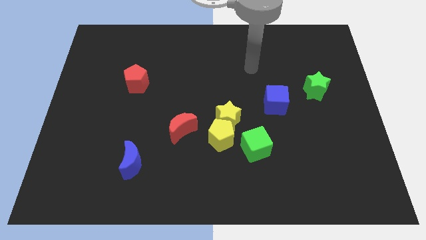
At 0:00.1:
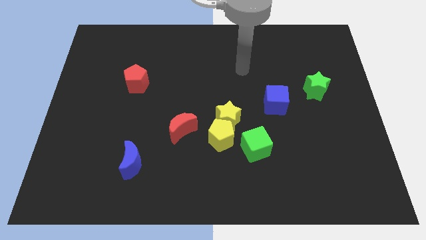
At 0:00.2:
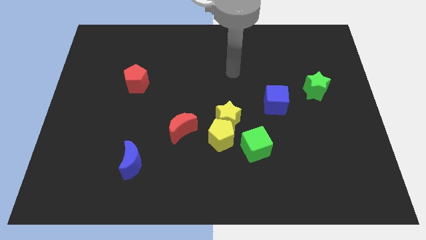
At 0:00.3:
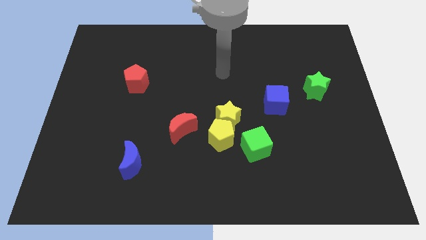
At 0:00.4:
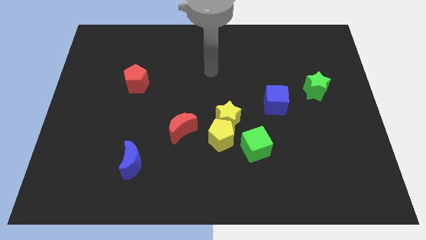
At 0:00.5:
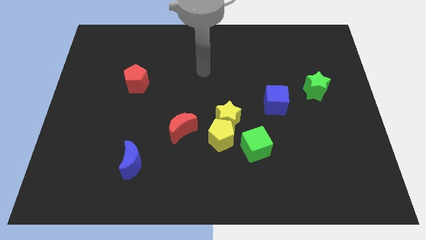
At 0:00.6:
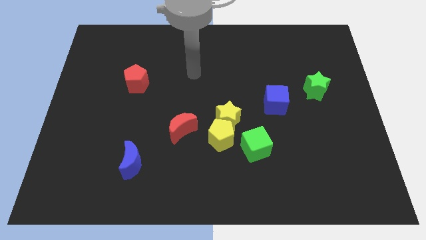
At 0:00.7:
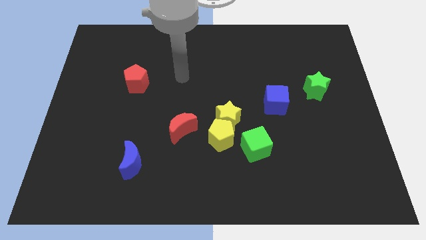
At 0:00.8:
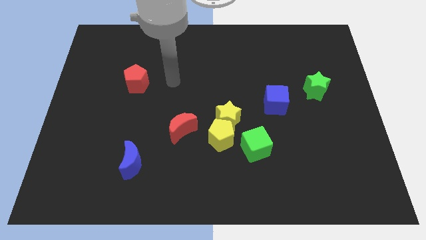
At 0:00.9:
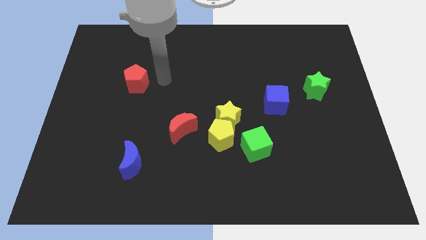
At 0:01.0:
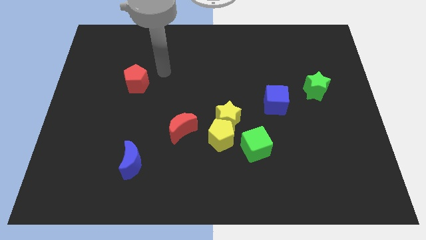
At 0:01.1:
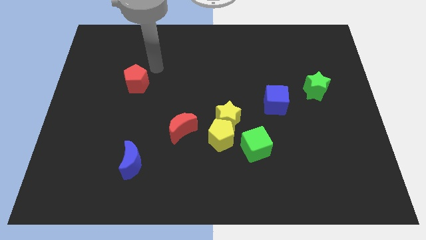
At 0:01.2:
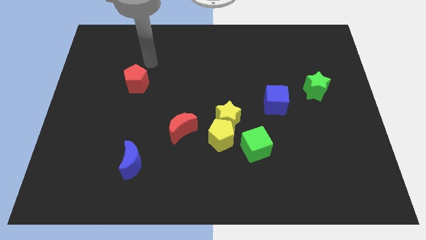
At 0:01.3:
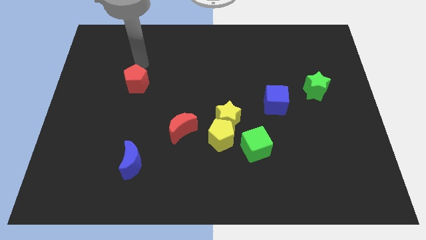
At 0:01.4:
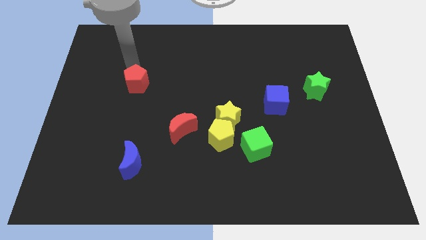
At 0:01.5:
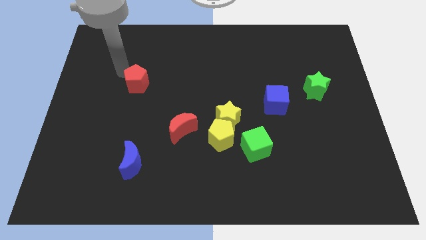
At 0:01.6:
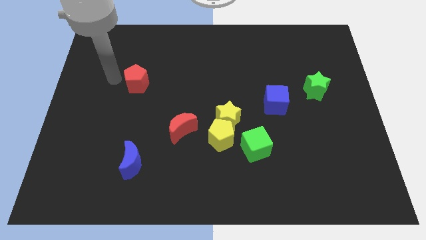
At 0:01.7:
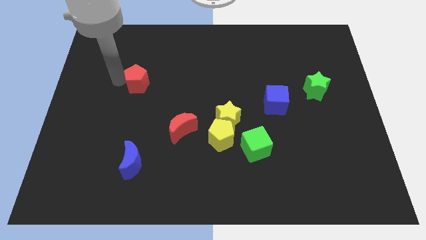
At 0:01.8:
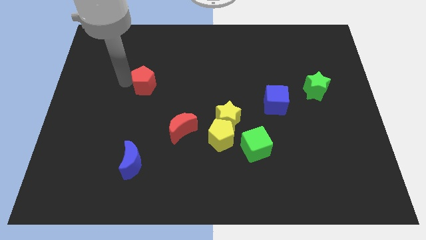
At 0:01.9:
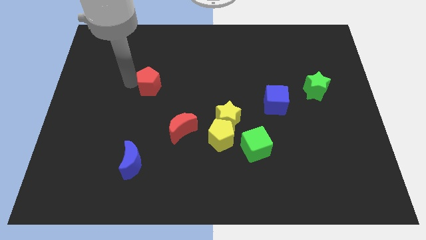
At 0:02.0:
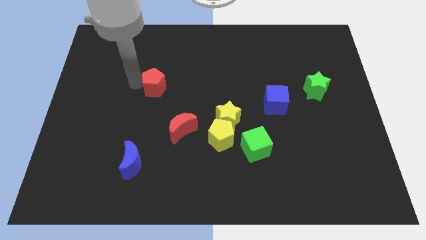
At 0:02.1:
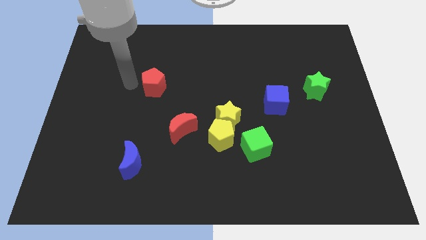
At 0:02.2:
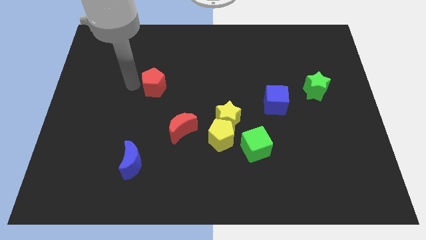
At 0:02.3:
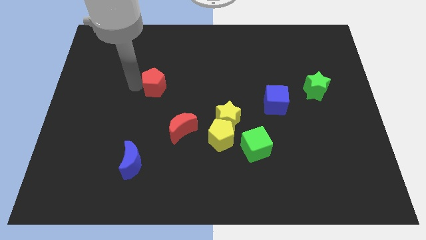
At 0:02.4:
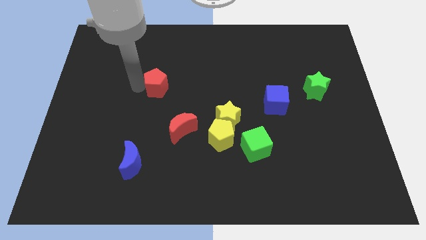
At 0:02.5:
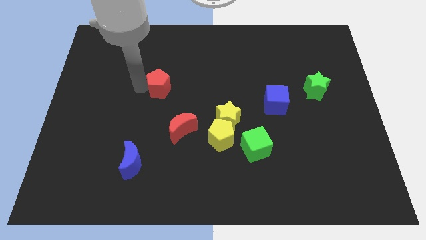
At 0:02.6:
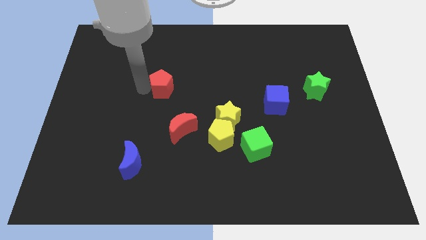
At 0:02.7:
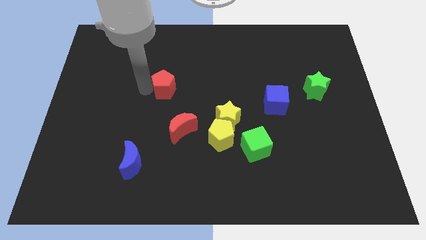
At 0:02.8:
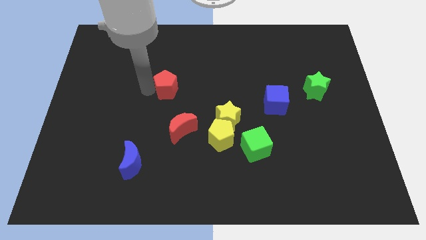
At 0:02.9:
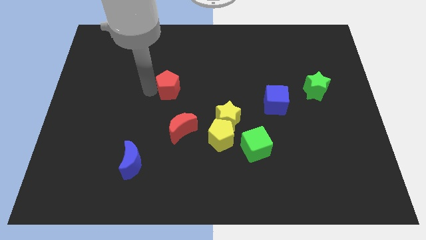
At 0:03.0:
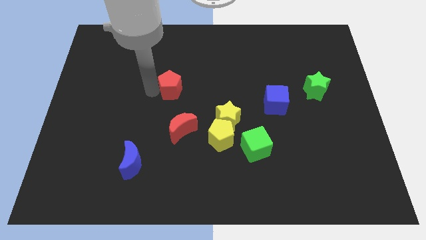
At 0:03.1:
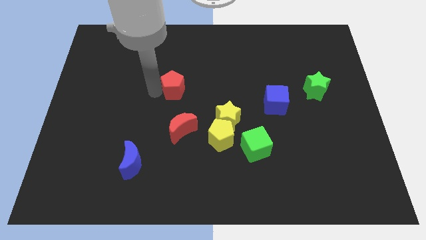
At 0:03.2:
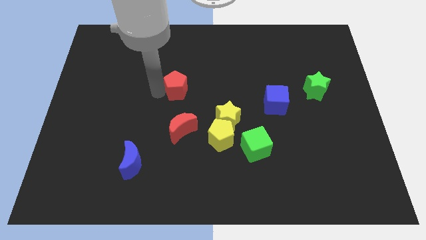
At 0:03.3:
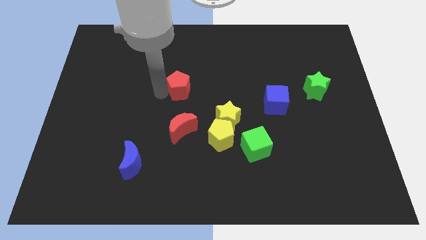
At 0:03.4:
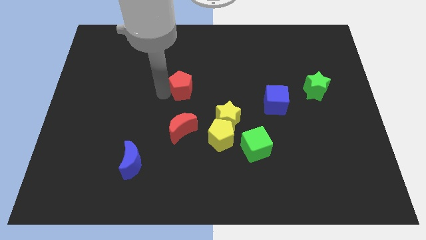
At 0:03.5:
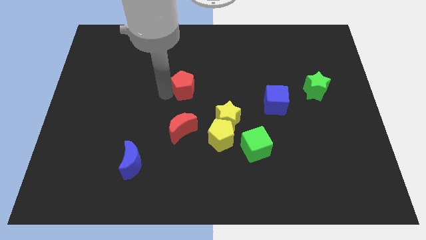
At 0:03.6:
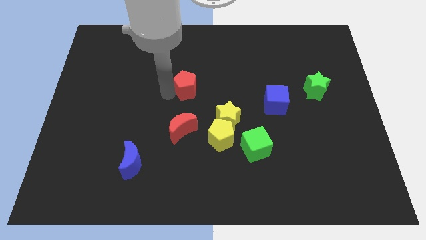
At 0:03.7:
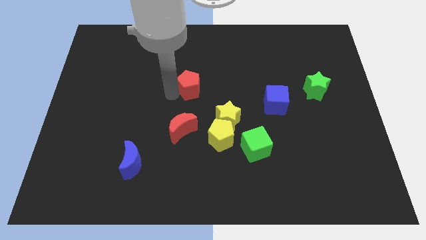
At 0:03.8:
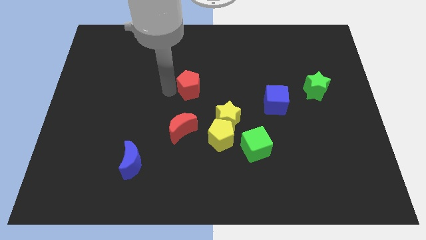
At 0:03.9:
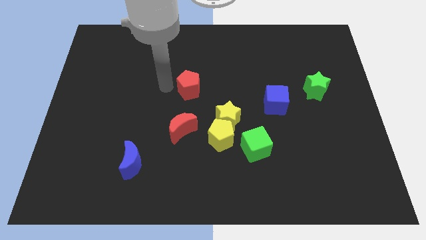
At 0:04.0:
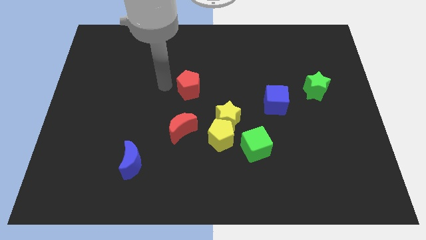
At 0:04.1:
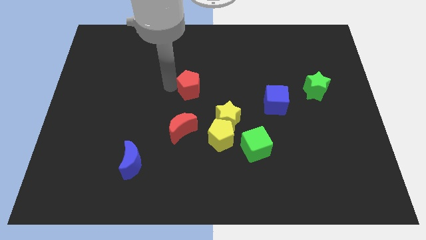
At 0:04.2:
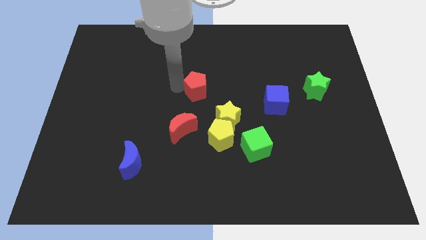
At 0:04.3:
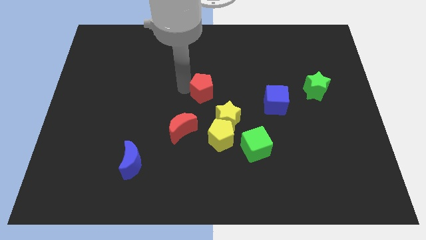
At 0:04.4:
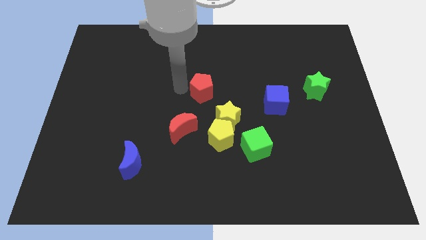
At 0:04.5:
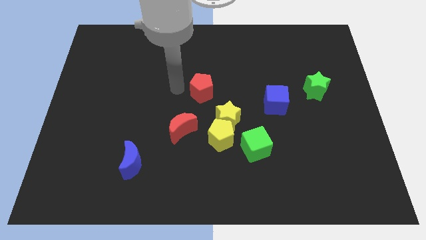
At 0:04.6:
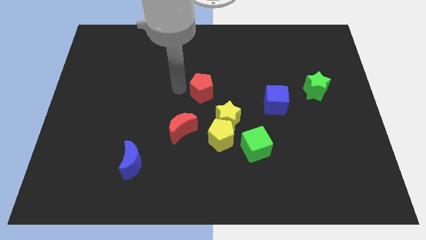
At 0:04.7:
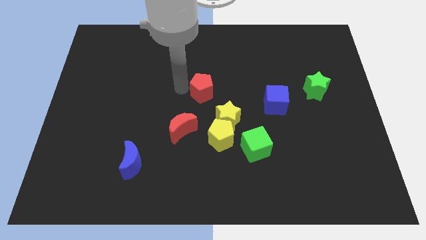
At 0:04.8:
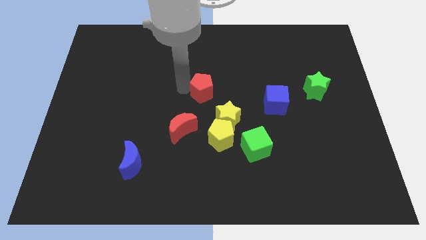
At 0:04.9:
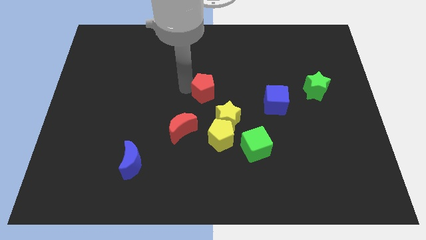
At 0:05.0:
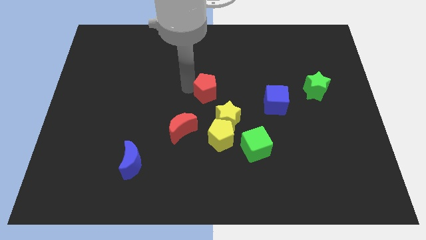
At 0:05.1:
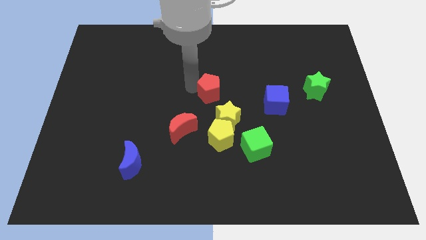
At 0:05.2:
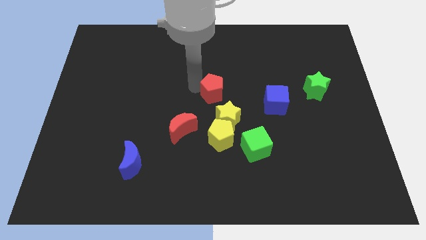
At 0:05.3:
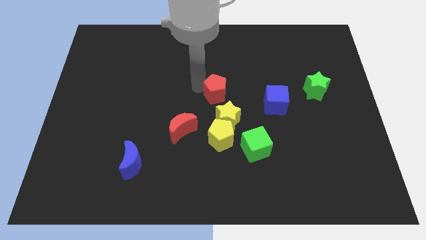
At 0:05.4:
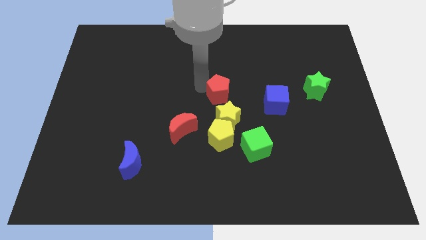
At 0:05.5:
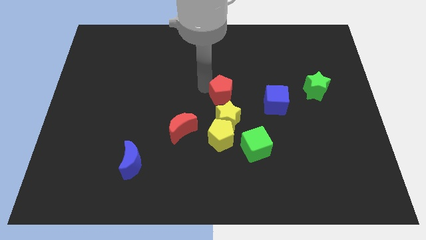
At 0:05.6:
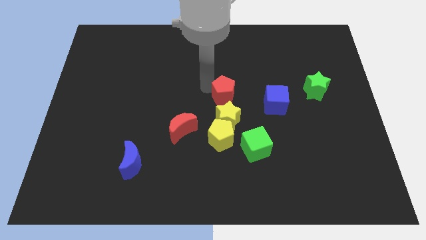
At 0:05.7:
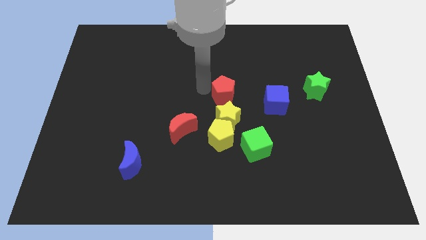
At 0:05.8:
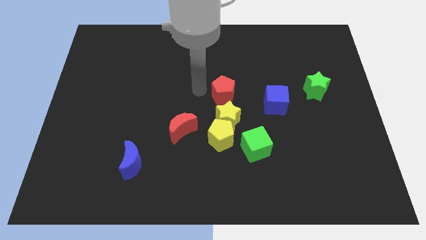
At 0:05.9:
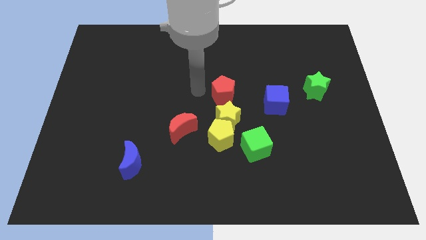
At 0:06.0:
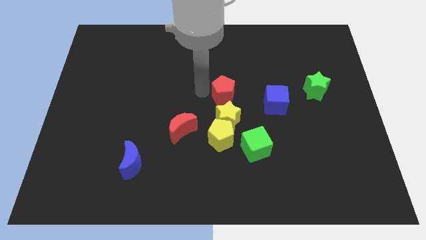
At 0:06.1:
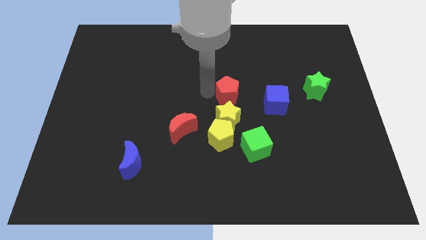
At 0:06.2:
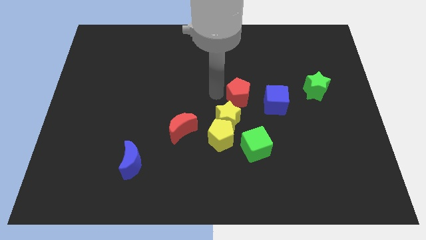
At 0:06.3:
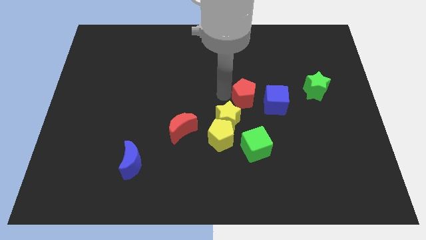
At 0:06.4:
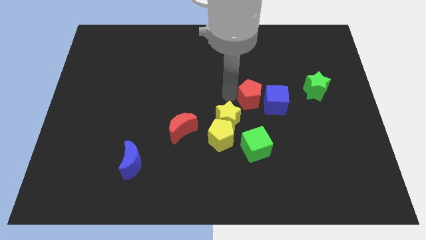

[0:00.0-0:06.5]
push the red pentagon close to the blue cube

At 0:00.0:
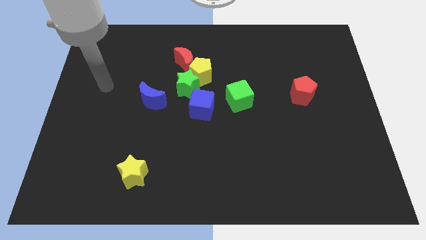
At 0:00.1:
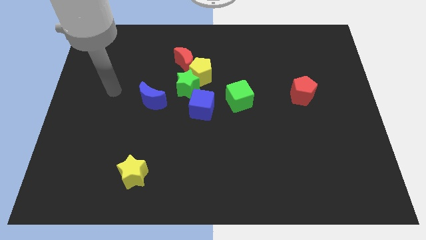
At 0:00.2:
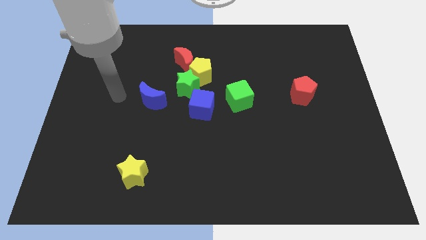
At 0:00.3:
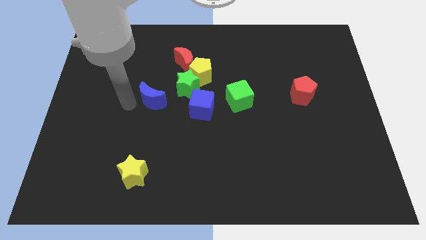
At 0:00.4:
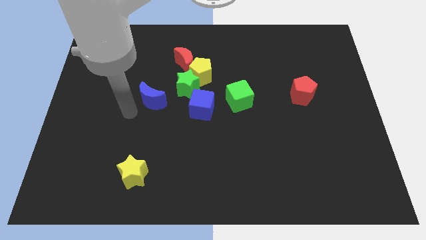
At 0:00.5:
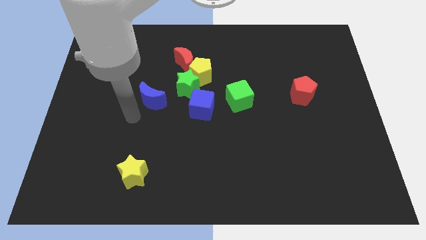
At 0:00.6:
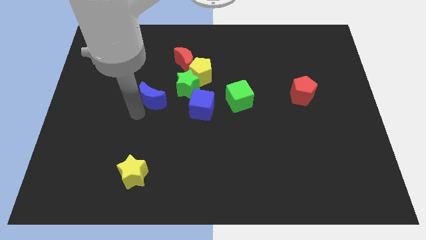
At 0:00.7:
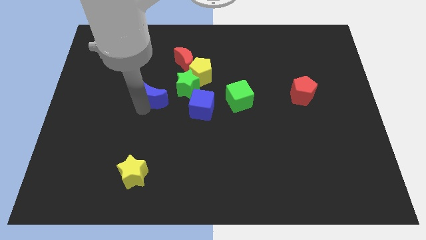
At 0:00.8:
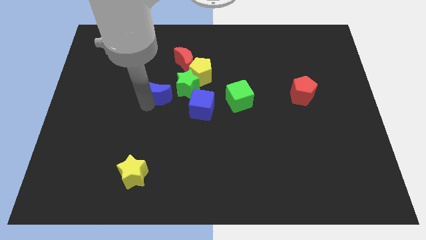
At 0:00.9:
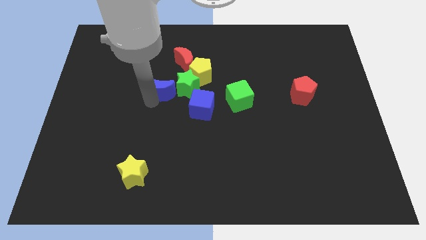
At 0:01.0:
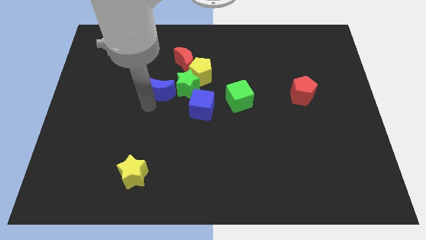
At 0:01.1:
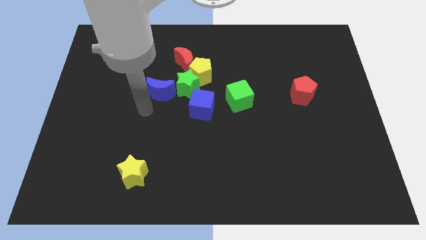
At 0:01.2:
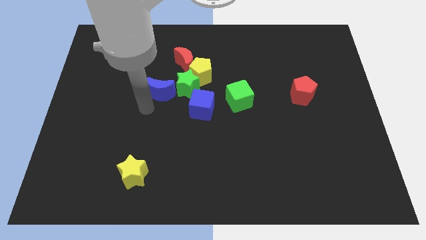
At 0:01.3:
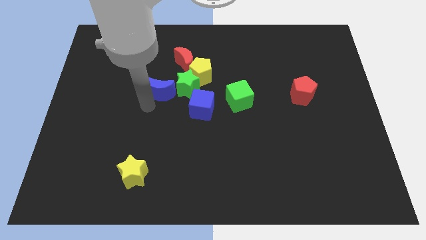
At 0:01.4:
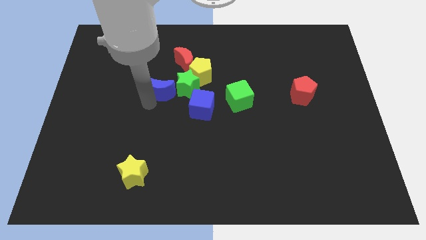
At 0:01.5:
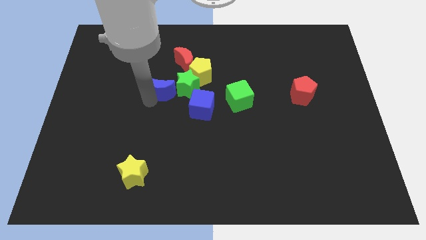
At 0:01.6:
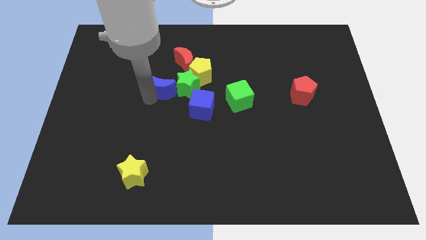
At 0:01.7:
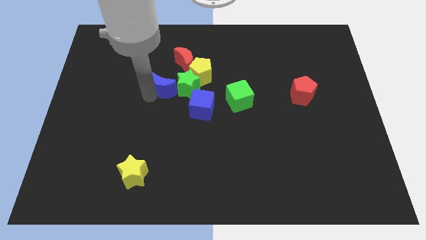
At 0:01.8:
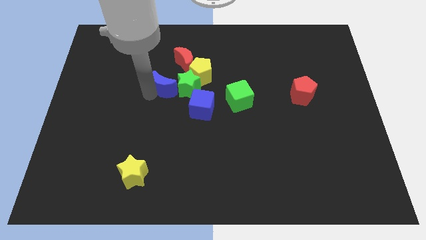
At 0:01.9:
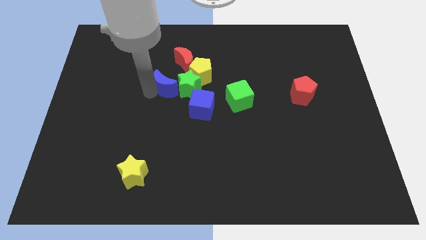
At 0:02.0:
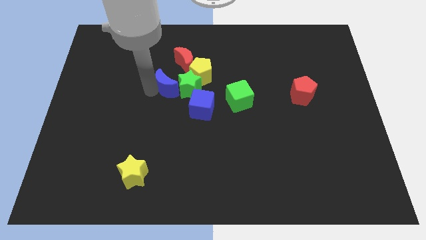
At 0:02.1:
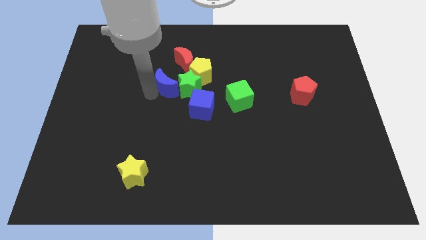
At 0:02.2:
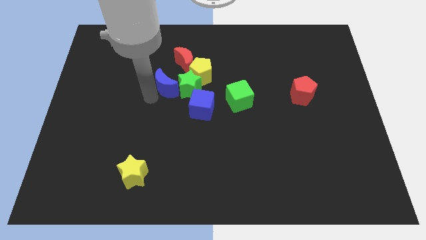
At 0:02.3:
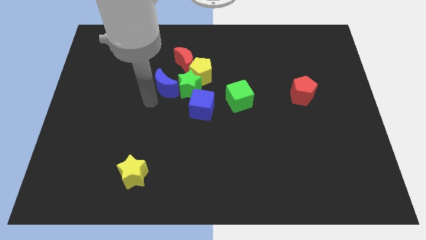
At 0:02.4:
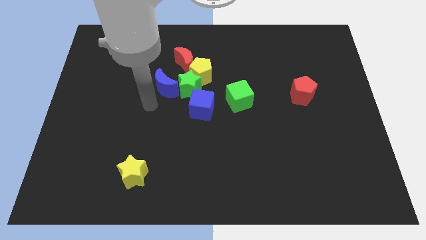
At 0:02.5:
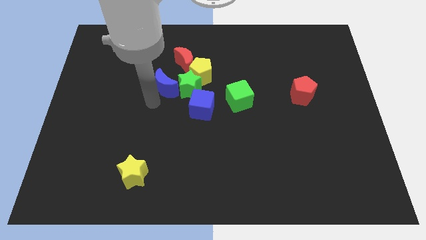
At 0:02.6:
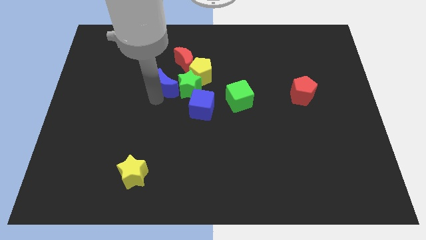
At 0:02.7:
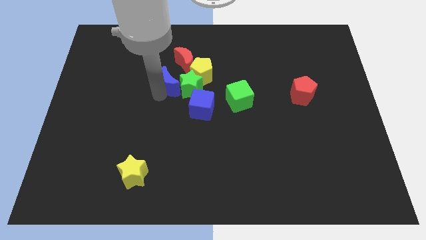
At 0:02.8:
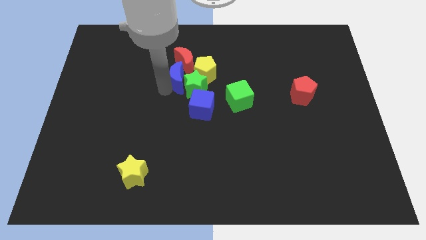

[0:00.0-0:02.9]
slide the blue moon to the red moon
